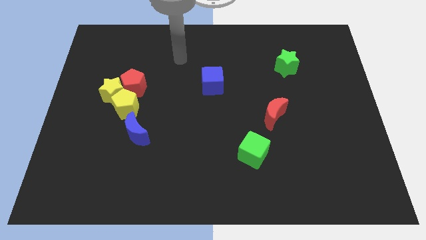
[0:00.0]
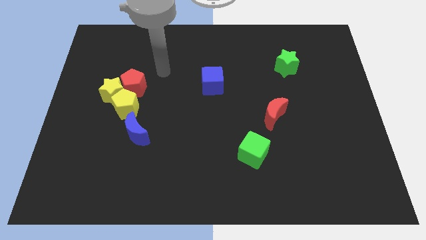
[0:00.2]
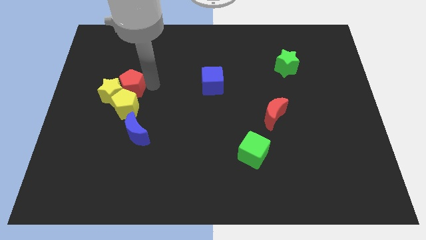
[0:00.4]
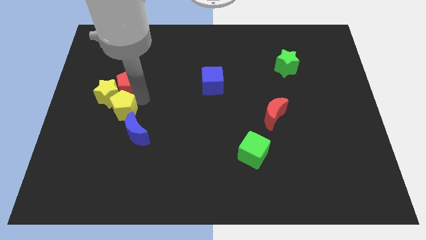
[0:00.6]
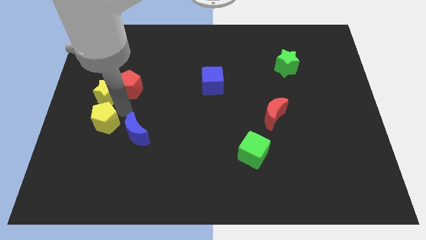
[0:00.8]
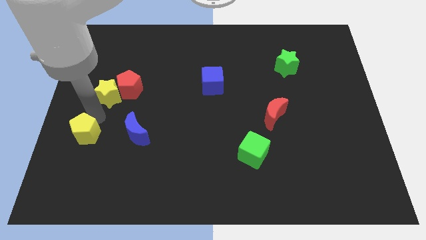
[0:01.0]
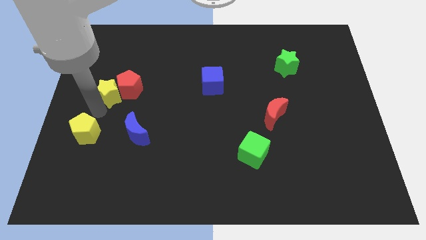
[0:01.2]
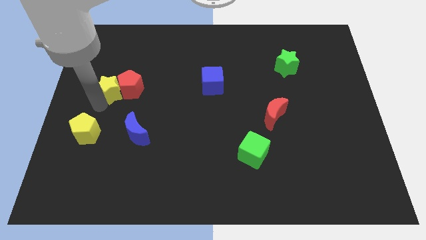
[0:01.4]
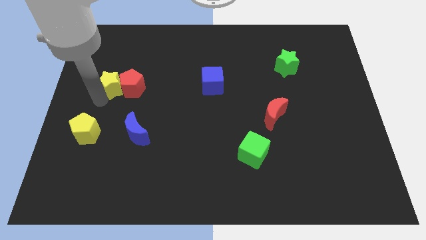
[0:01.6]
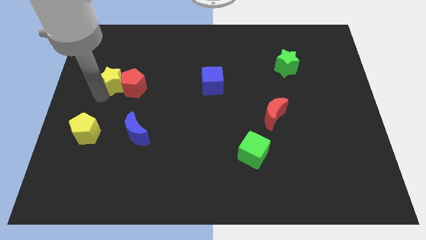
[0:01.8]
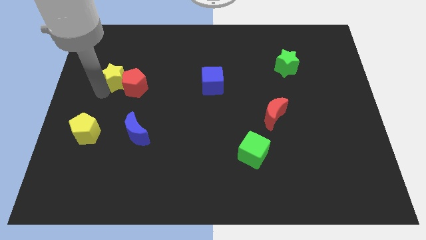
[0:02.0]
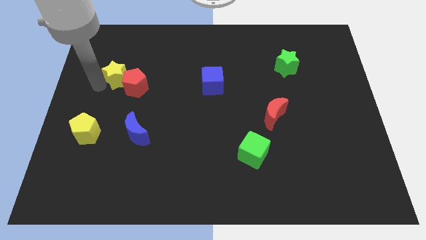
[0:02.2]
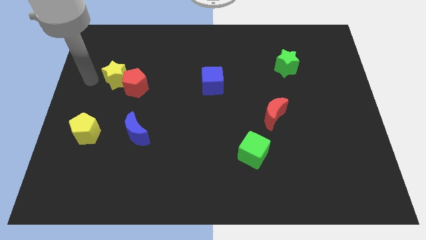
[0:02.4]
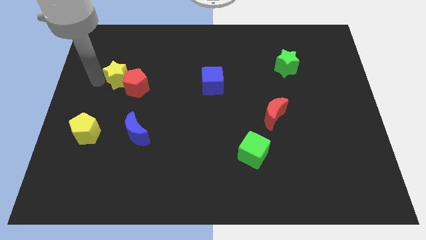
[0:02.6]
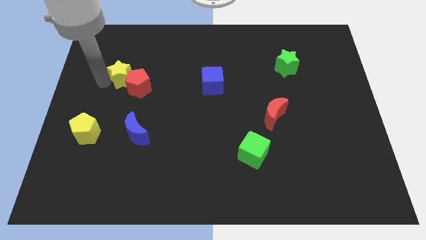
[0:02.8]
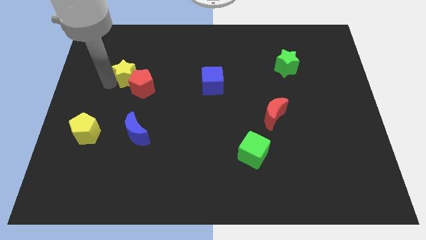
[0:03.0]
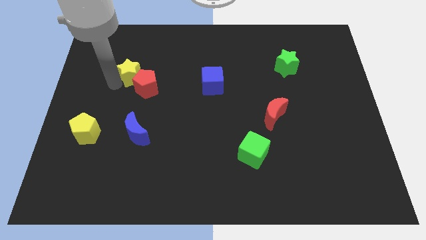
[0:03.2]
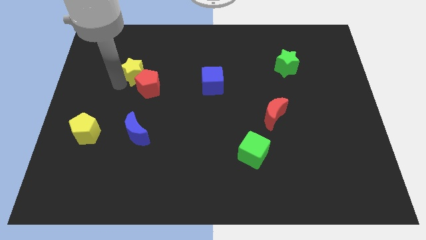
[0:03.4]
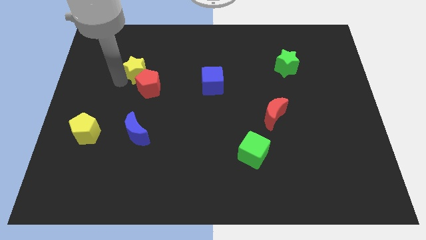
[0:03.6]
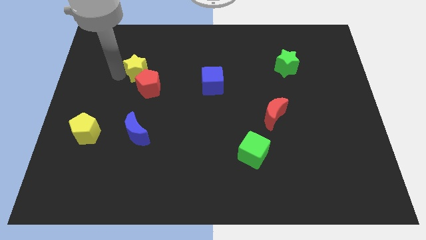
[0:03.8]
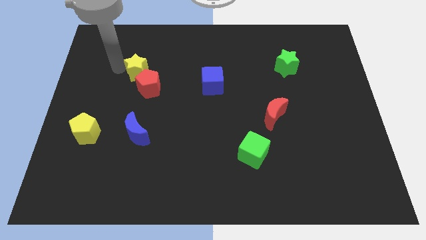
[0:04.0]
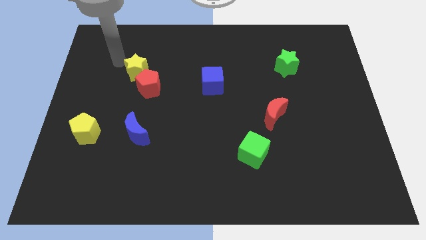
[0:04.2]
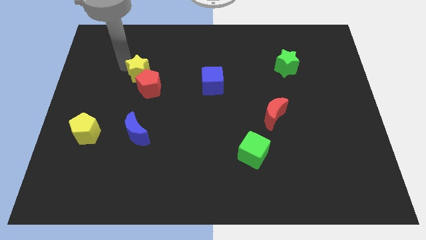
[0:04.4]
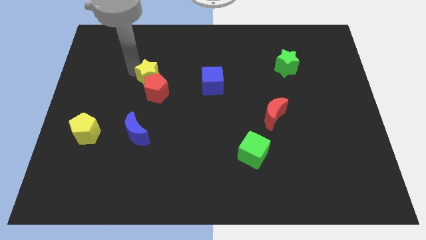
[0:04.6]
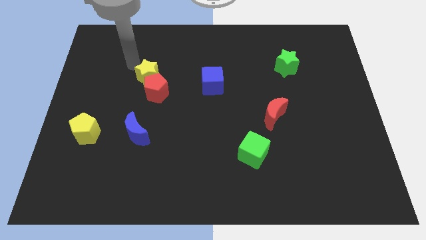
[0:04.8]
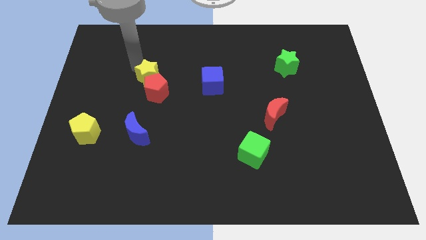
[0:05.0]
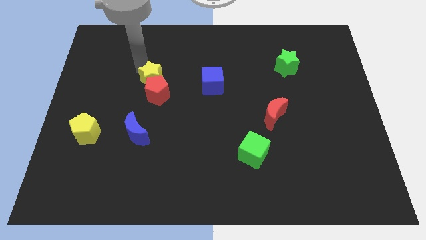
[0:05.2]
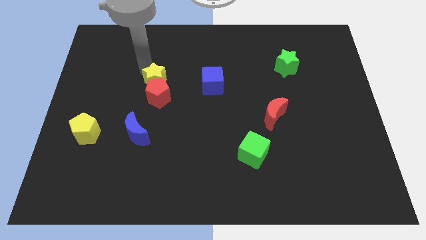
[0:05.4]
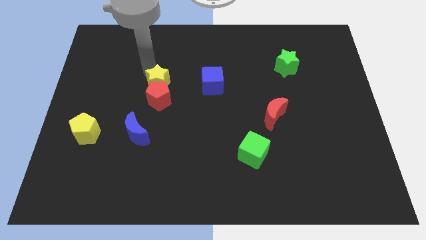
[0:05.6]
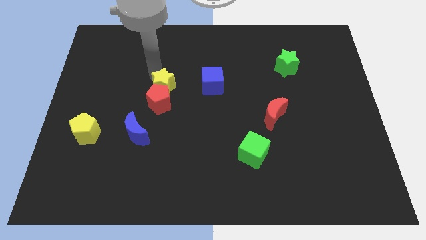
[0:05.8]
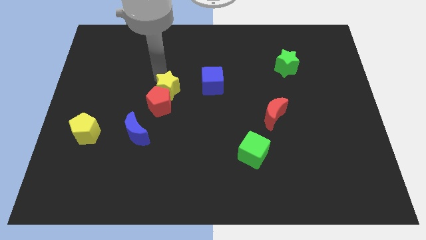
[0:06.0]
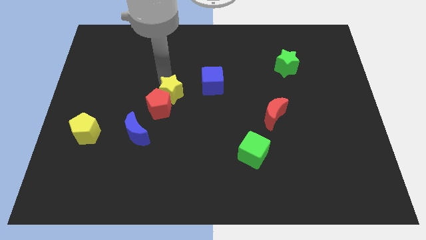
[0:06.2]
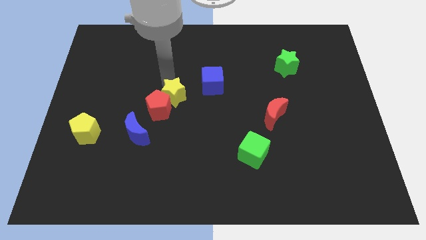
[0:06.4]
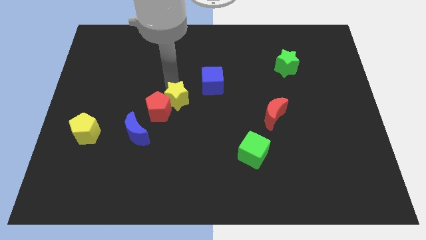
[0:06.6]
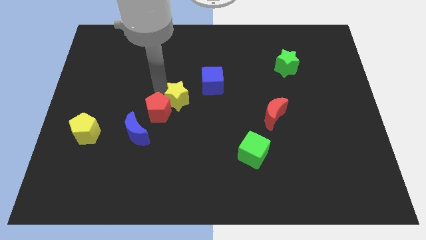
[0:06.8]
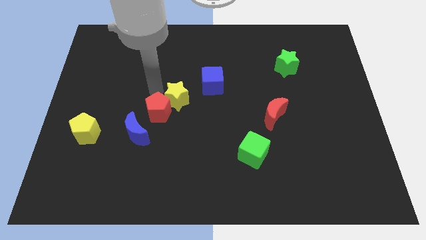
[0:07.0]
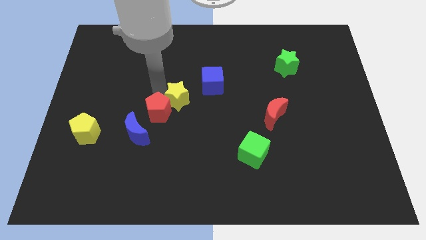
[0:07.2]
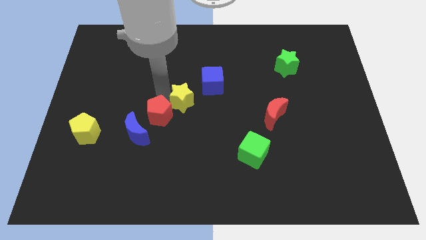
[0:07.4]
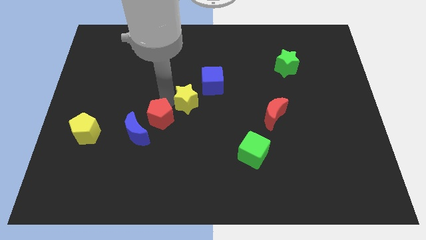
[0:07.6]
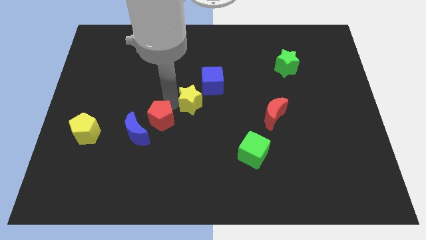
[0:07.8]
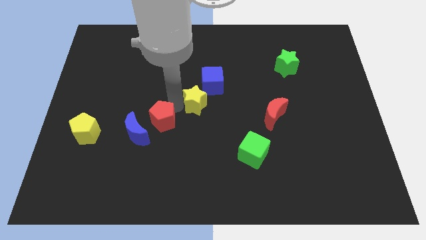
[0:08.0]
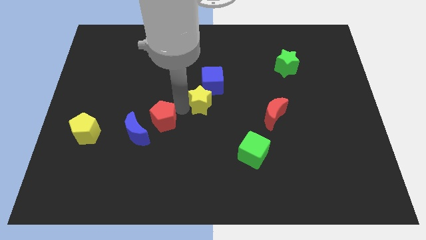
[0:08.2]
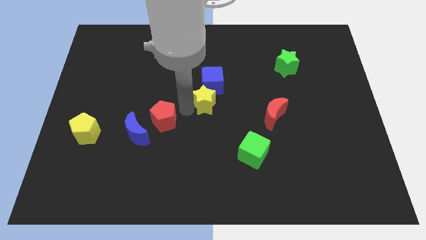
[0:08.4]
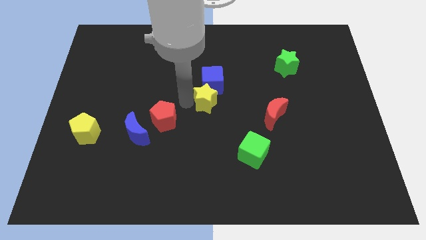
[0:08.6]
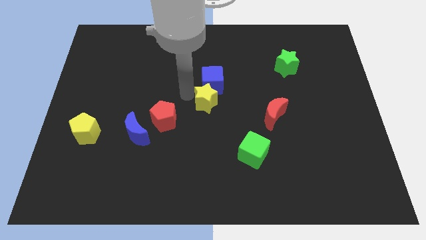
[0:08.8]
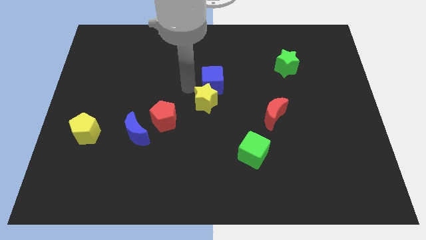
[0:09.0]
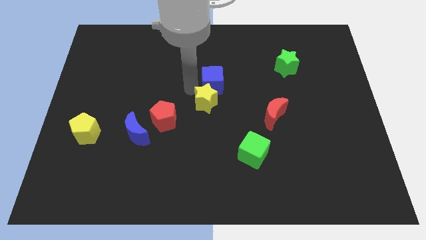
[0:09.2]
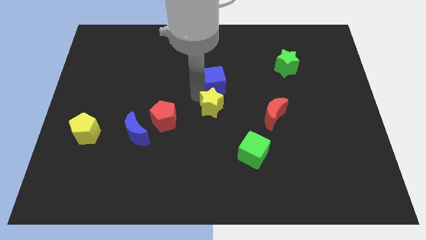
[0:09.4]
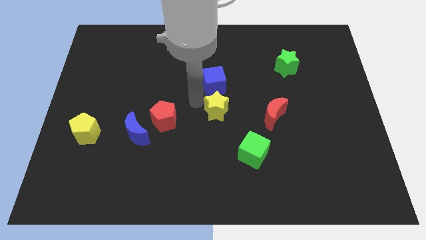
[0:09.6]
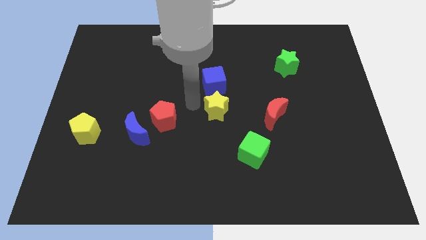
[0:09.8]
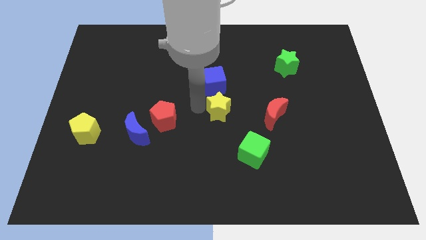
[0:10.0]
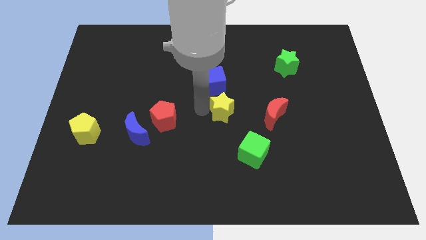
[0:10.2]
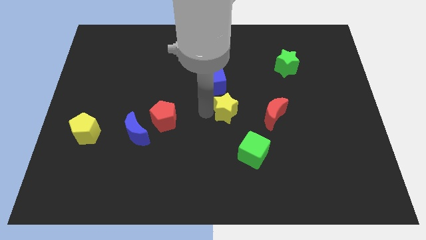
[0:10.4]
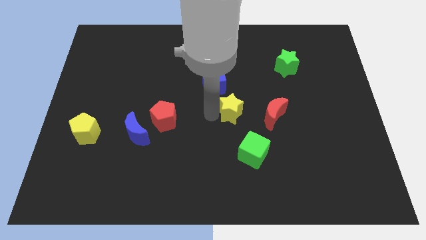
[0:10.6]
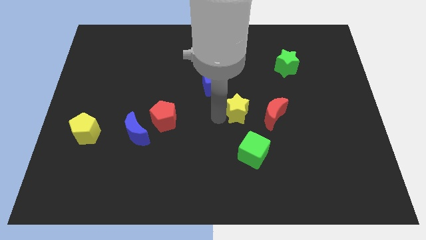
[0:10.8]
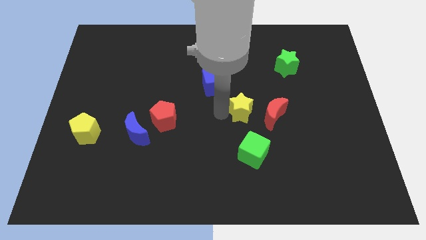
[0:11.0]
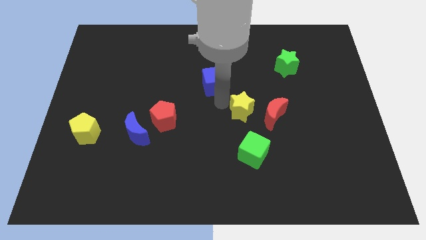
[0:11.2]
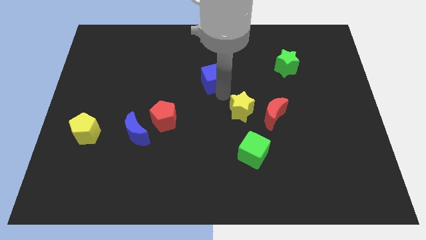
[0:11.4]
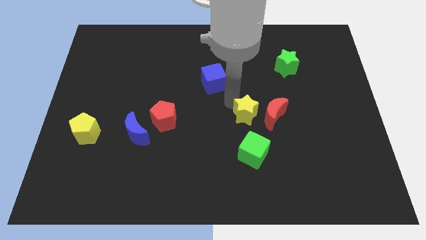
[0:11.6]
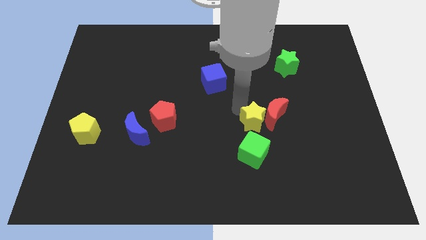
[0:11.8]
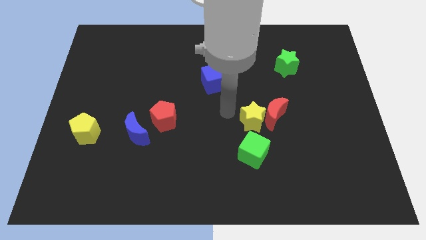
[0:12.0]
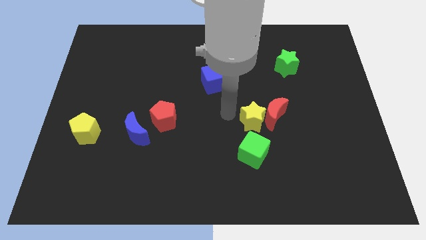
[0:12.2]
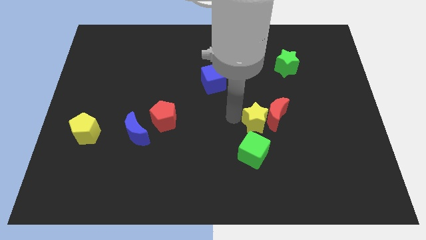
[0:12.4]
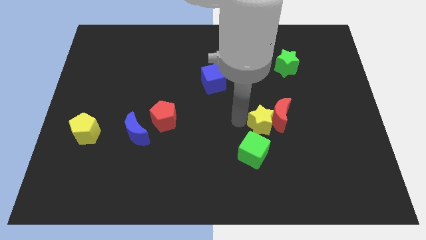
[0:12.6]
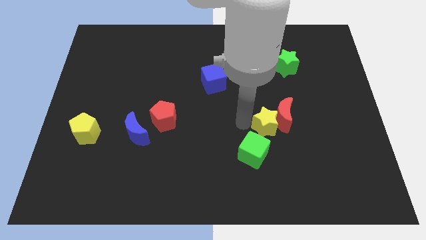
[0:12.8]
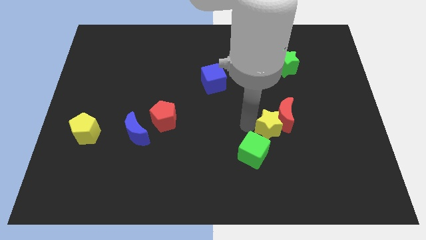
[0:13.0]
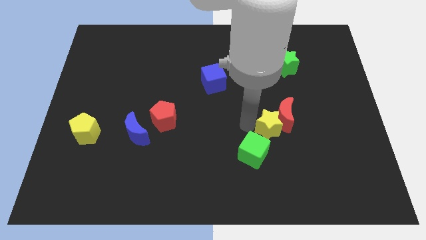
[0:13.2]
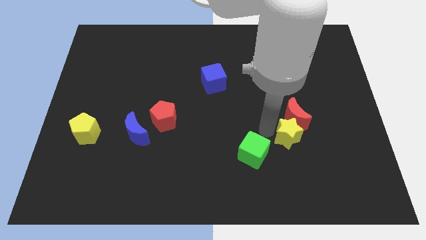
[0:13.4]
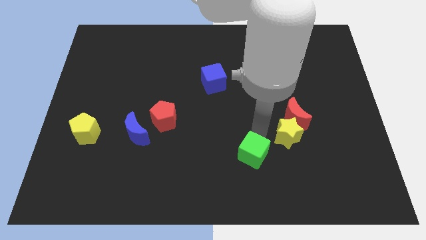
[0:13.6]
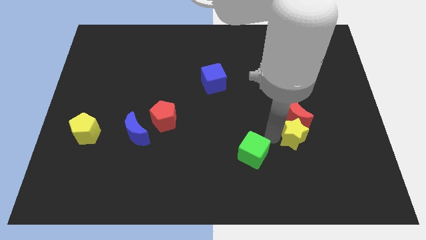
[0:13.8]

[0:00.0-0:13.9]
move the yellow star to the bottom right side of the red moon
